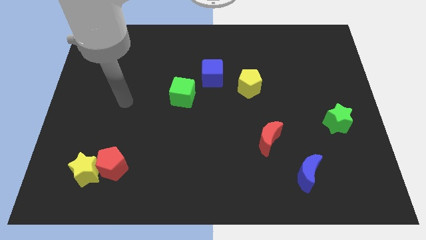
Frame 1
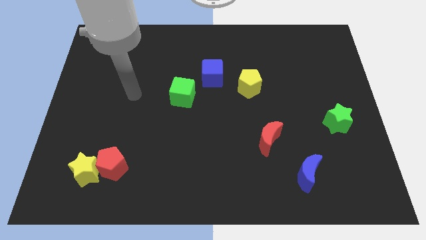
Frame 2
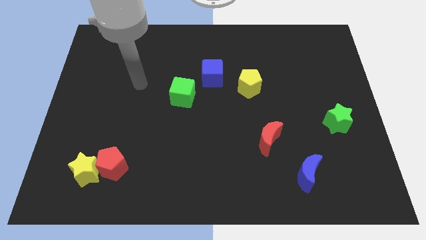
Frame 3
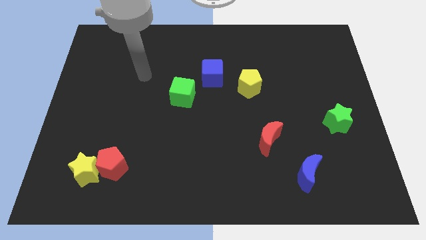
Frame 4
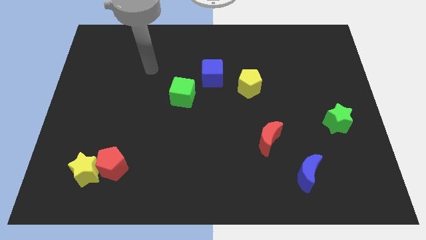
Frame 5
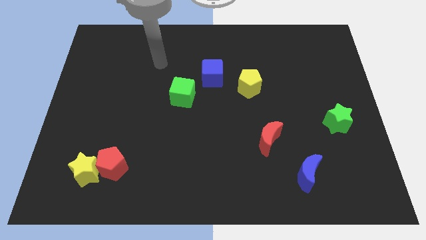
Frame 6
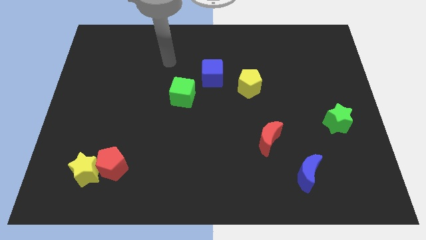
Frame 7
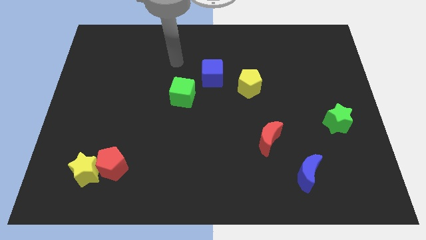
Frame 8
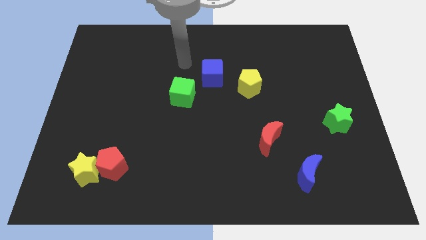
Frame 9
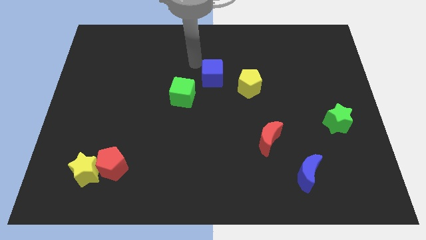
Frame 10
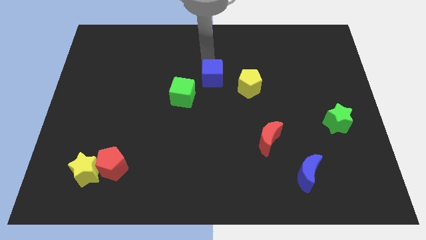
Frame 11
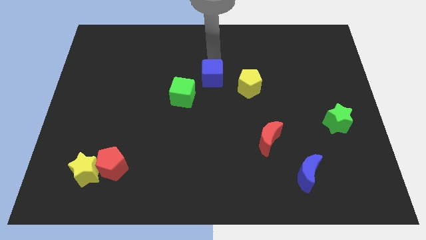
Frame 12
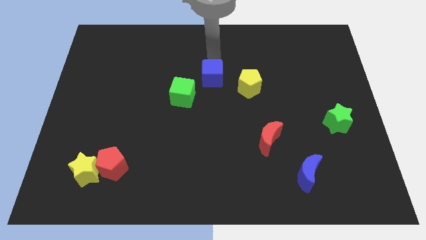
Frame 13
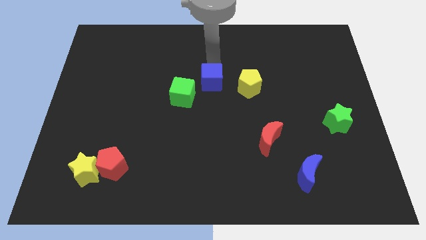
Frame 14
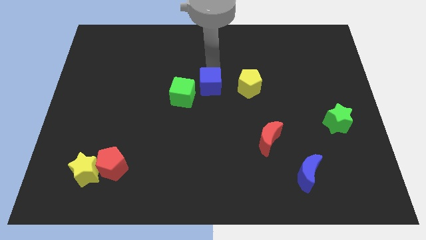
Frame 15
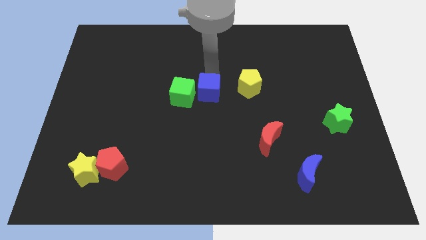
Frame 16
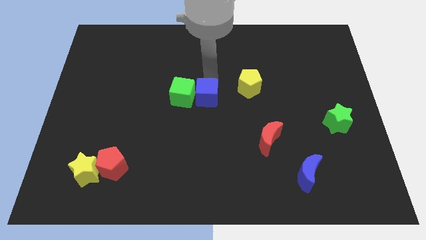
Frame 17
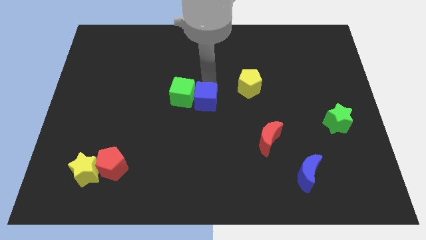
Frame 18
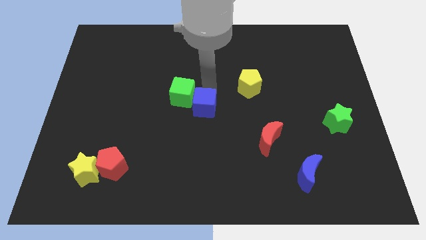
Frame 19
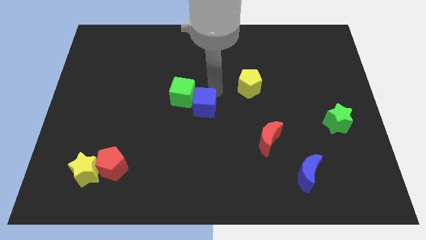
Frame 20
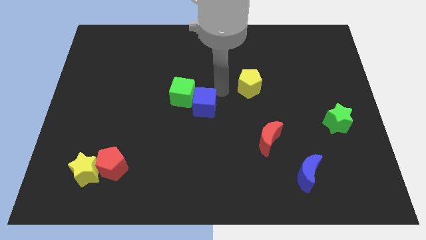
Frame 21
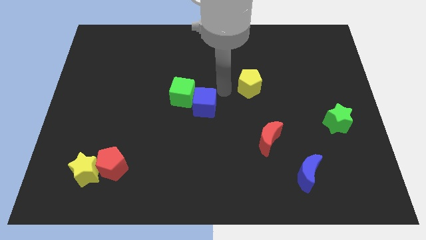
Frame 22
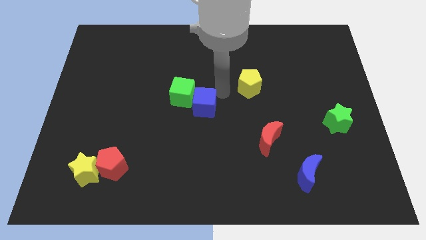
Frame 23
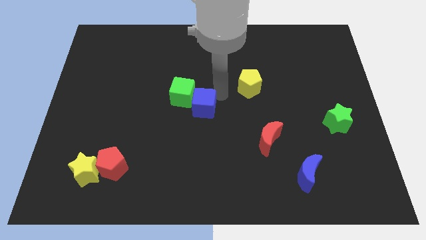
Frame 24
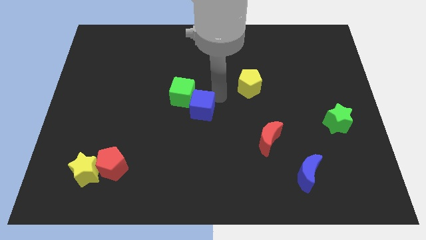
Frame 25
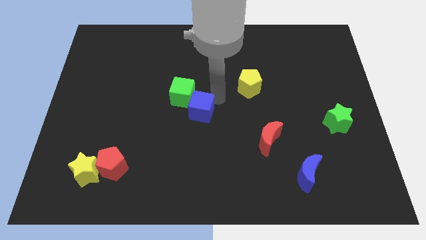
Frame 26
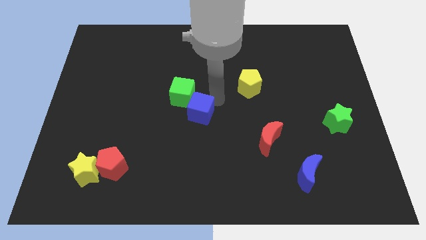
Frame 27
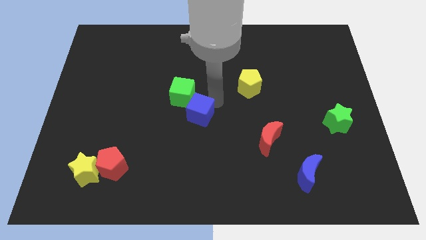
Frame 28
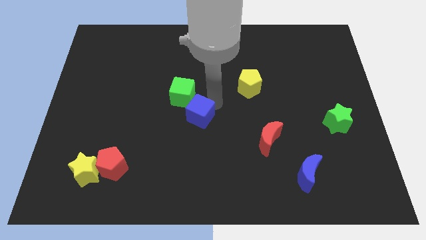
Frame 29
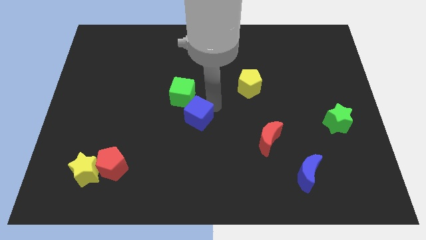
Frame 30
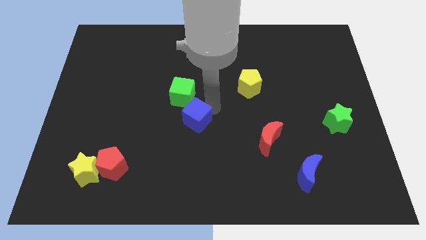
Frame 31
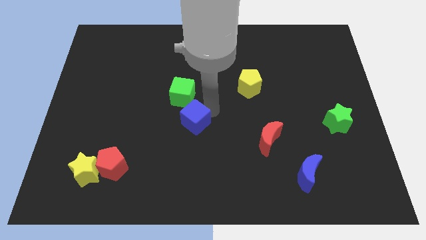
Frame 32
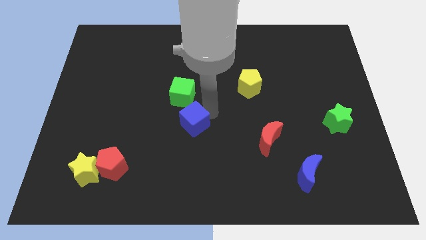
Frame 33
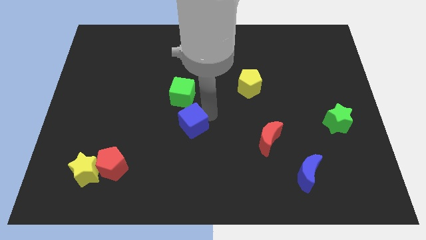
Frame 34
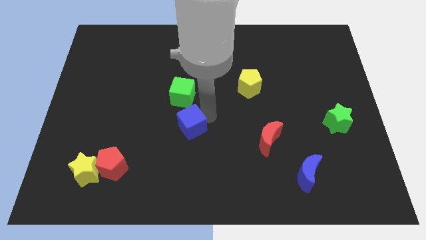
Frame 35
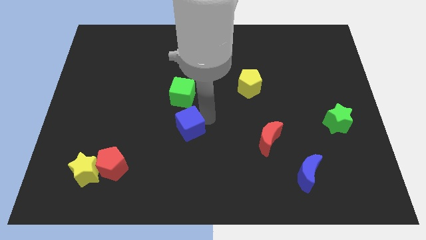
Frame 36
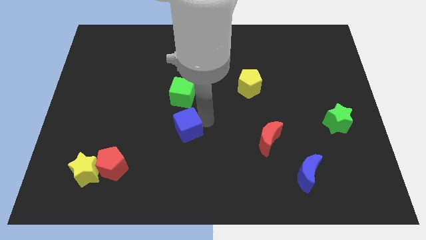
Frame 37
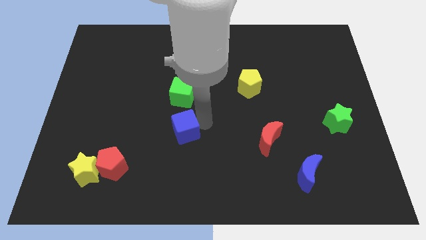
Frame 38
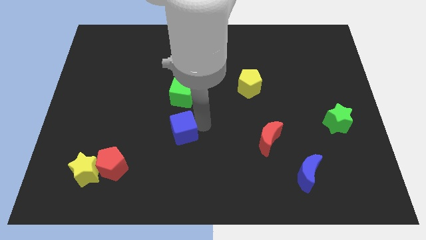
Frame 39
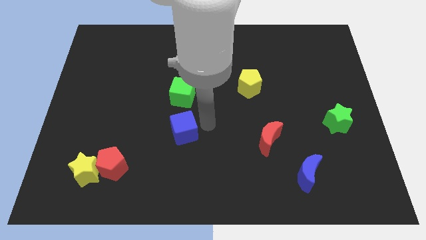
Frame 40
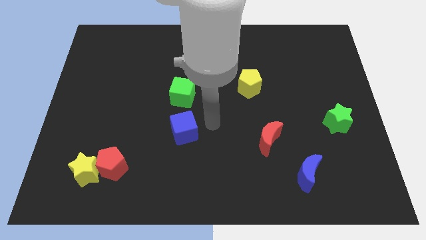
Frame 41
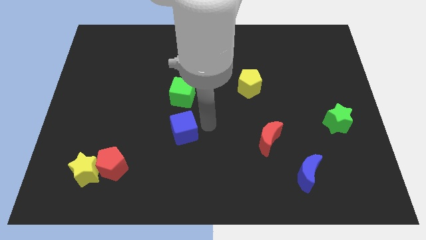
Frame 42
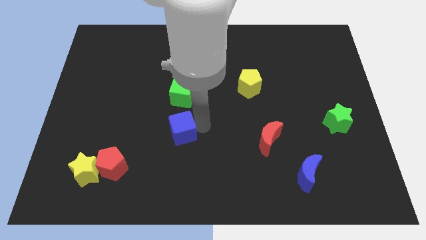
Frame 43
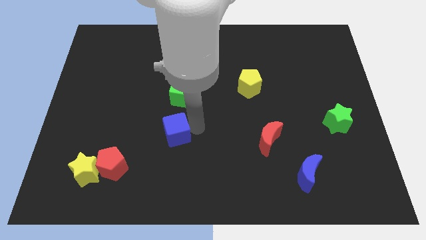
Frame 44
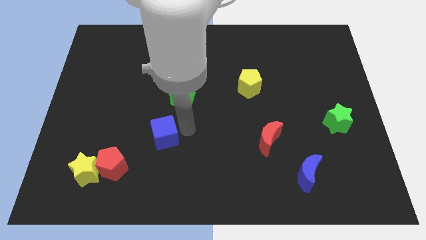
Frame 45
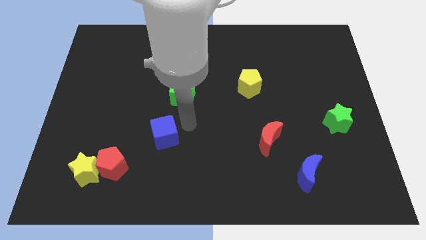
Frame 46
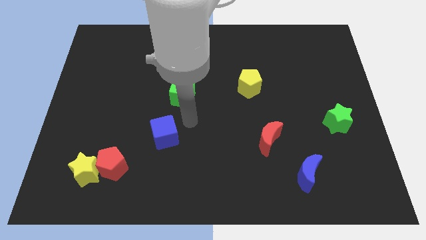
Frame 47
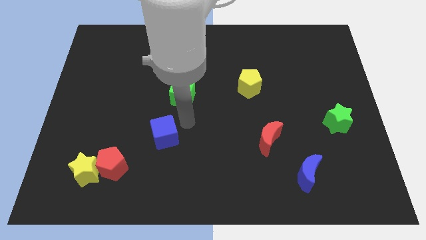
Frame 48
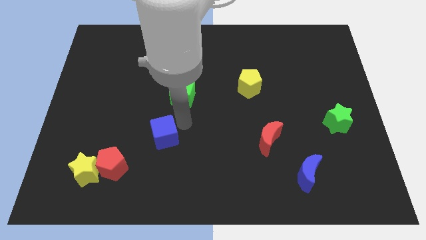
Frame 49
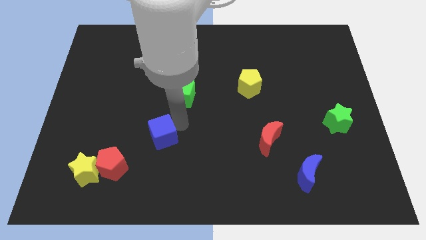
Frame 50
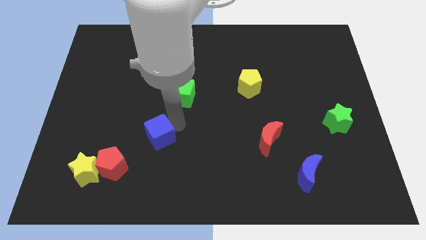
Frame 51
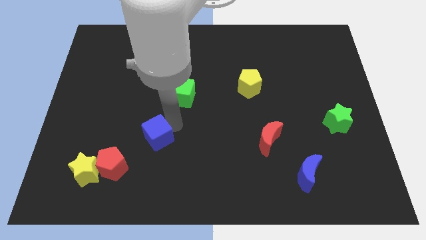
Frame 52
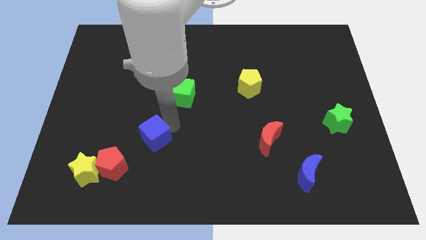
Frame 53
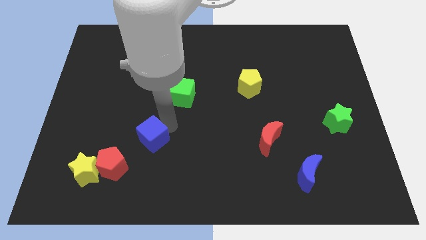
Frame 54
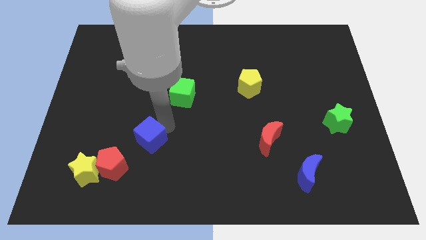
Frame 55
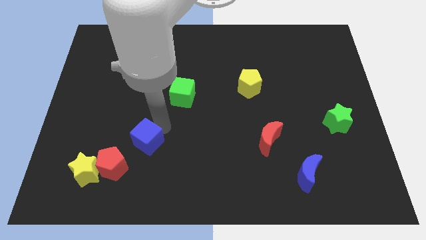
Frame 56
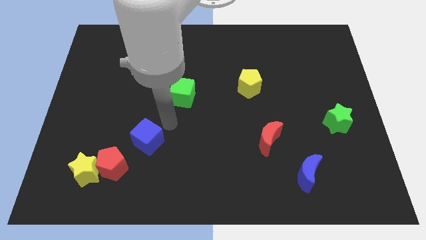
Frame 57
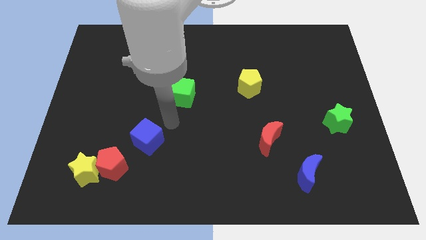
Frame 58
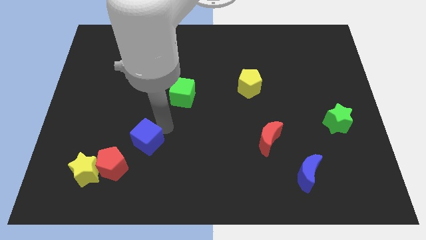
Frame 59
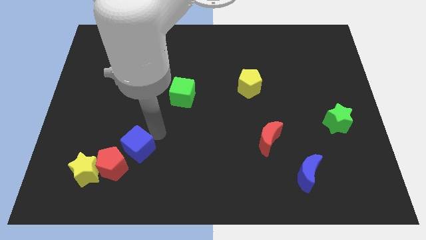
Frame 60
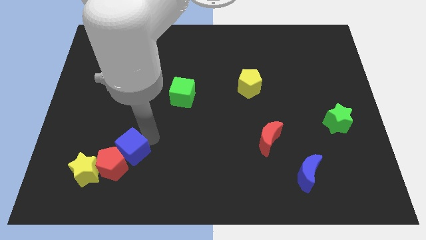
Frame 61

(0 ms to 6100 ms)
slide the blue cube next to the red pentagon
